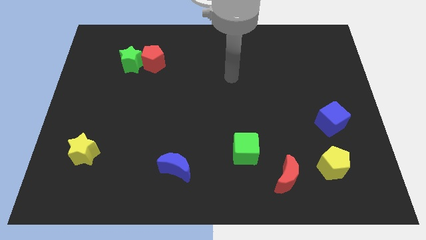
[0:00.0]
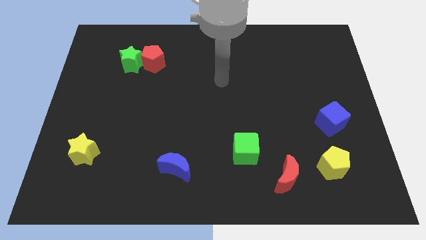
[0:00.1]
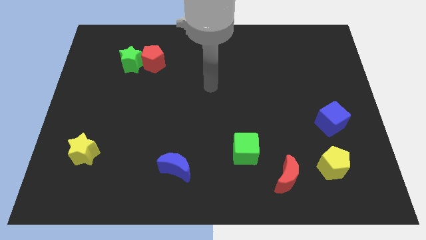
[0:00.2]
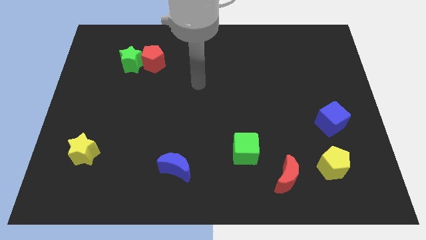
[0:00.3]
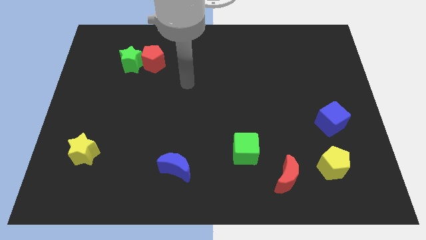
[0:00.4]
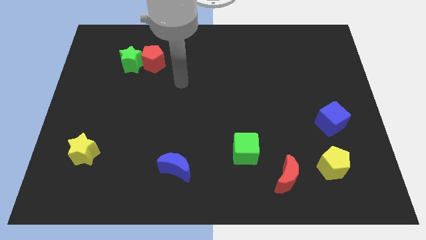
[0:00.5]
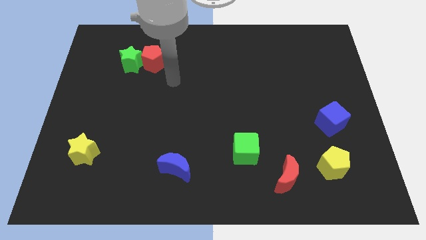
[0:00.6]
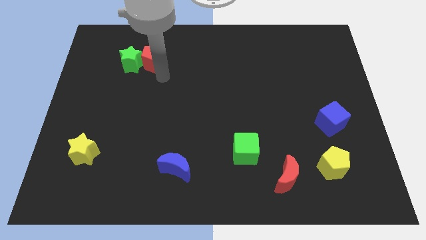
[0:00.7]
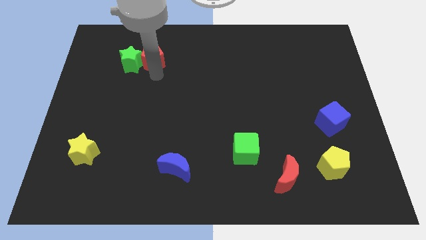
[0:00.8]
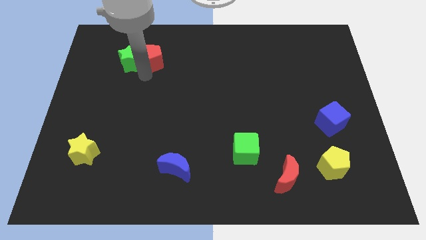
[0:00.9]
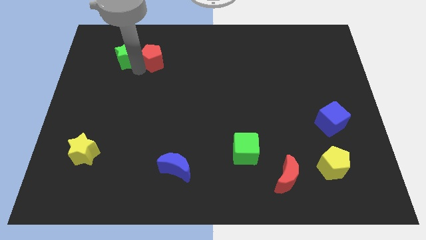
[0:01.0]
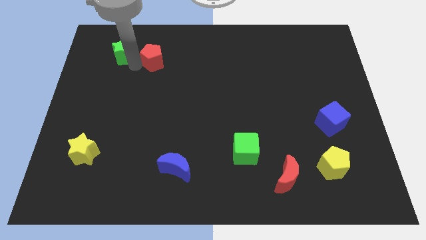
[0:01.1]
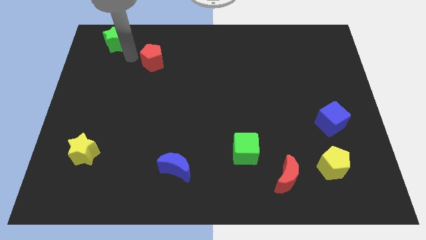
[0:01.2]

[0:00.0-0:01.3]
separate the red pentagon from the green star

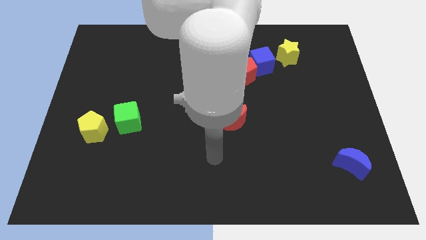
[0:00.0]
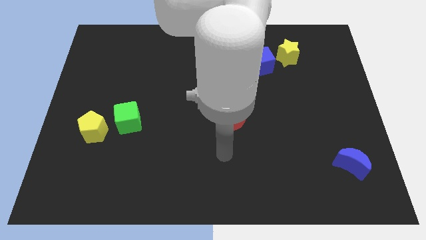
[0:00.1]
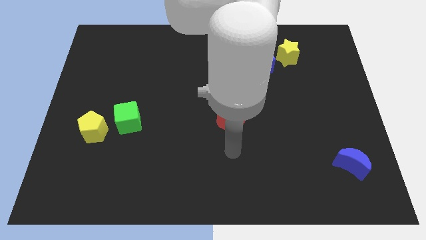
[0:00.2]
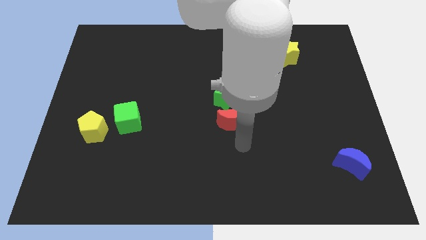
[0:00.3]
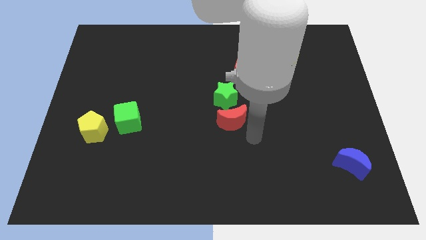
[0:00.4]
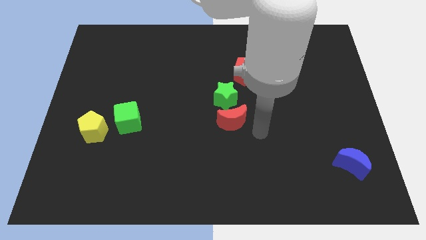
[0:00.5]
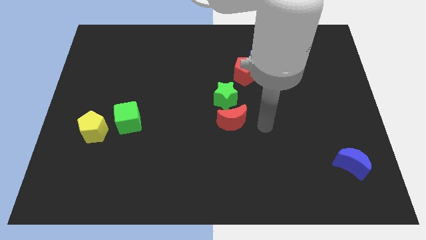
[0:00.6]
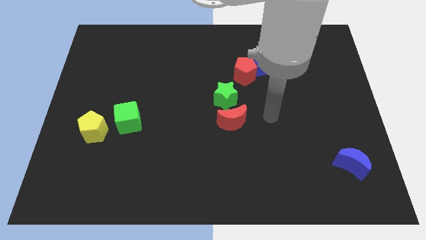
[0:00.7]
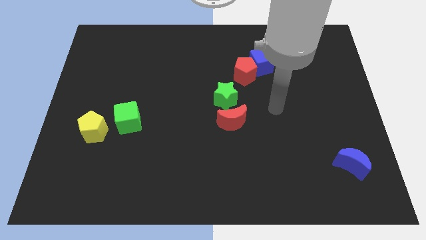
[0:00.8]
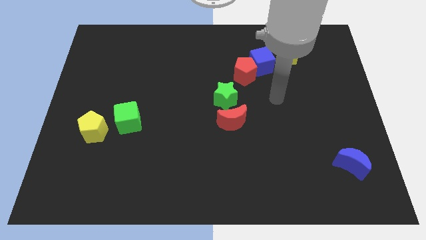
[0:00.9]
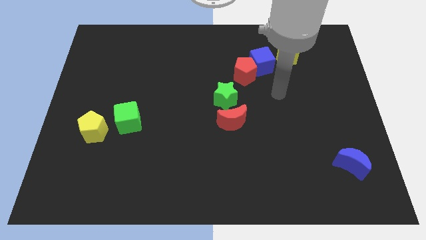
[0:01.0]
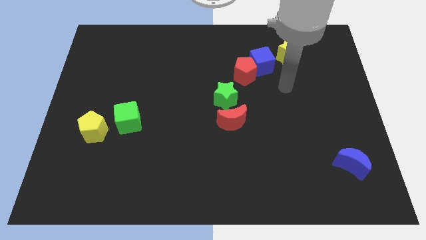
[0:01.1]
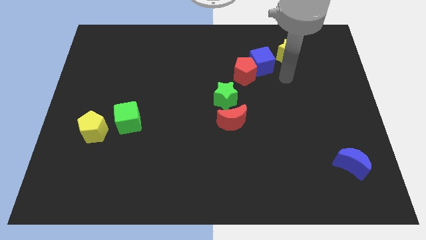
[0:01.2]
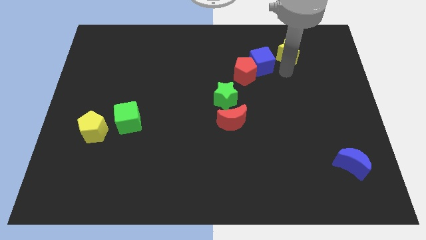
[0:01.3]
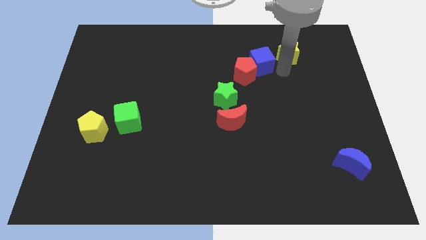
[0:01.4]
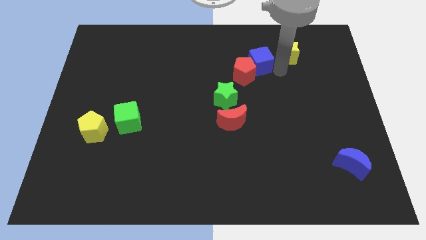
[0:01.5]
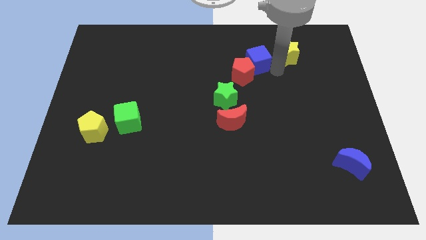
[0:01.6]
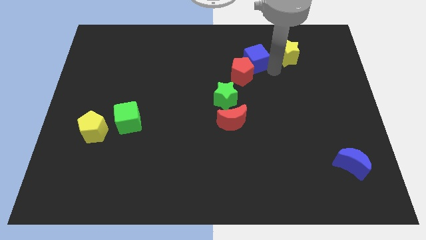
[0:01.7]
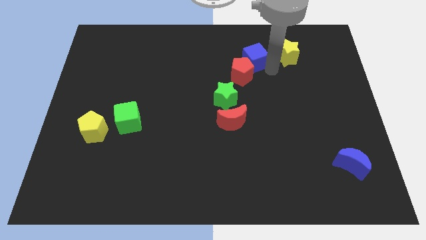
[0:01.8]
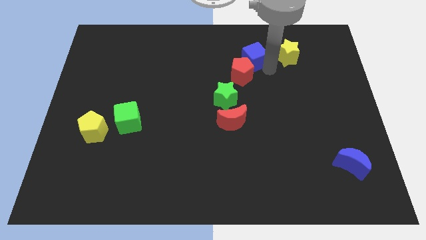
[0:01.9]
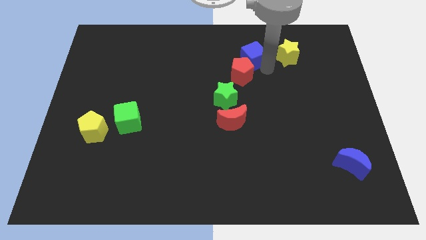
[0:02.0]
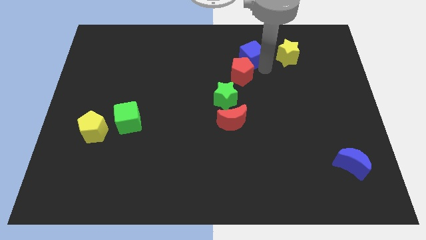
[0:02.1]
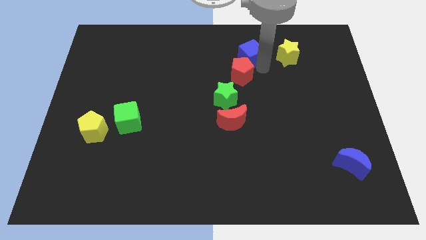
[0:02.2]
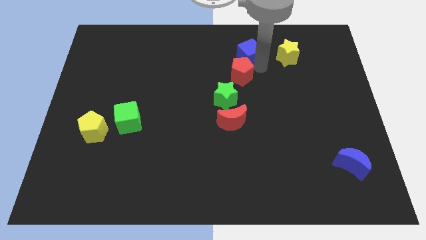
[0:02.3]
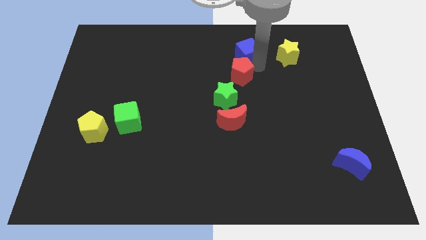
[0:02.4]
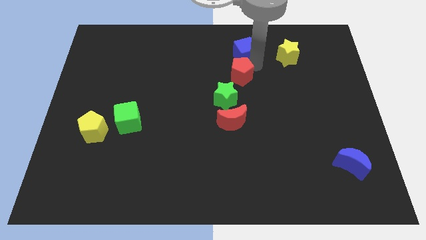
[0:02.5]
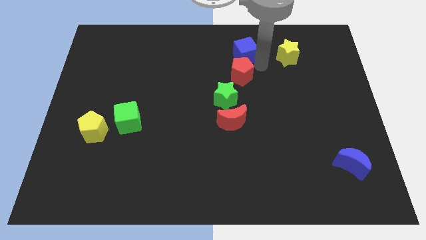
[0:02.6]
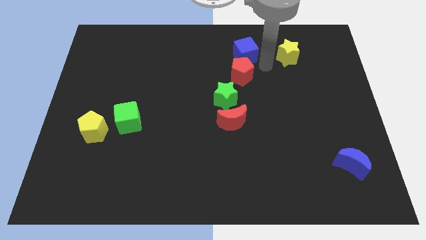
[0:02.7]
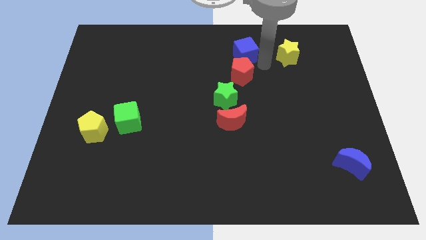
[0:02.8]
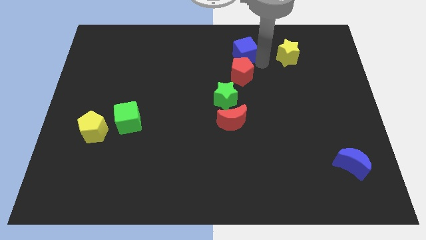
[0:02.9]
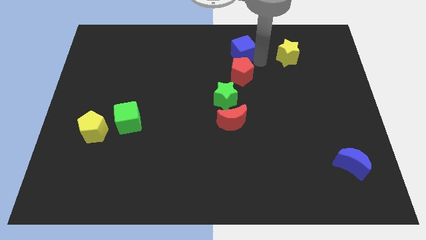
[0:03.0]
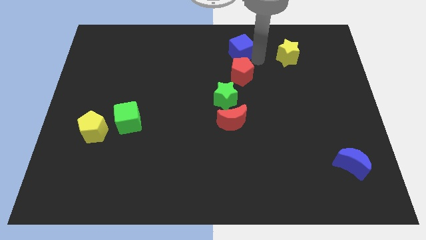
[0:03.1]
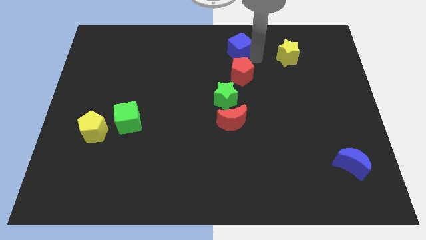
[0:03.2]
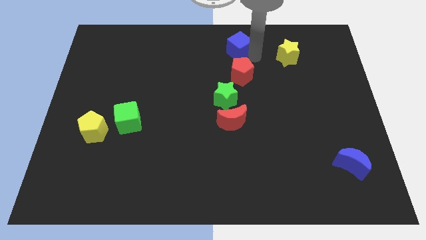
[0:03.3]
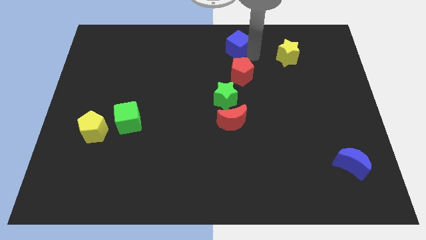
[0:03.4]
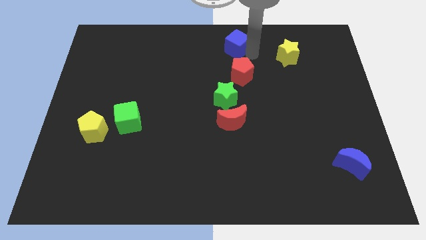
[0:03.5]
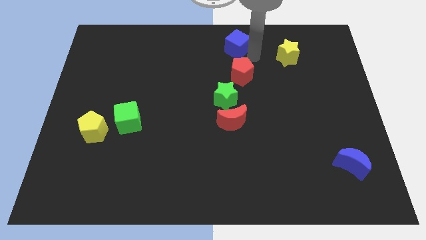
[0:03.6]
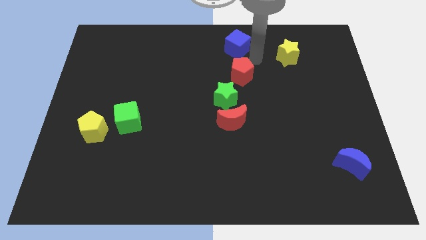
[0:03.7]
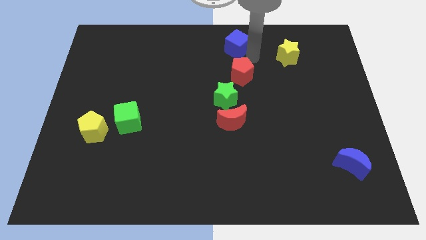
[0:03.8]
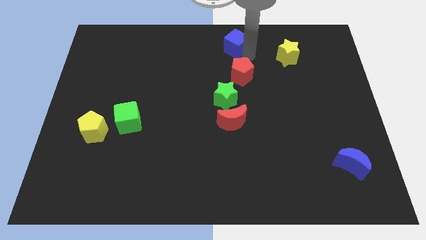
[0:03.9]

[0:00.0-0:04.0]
separate the blue cube from the red pentagon and yellow star

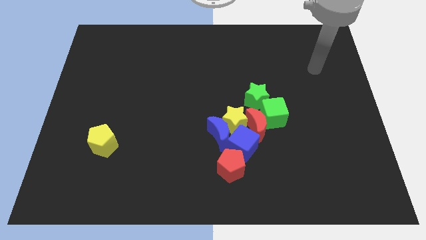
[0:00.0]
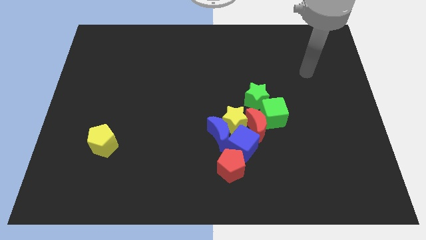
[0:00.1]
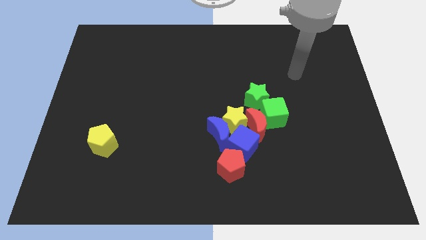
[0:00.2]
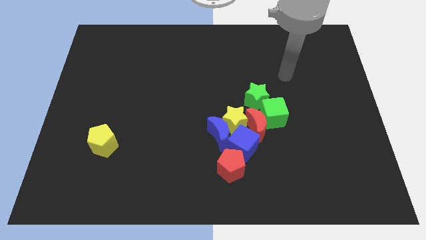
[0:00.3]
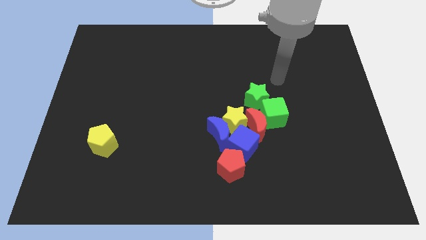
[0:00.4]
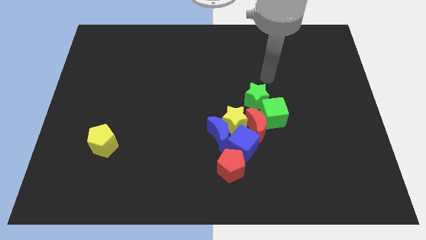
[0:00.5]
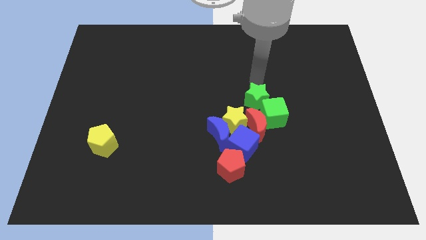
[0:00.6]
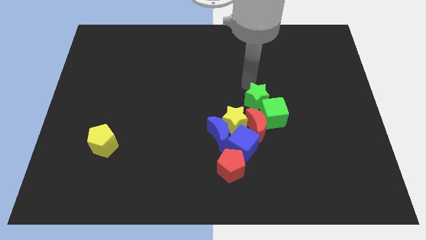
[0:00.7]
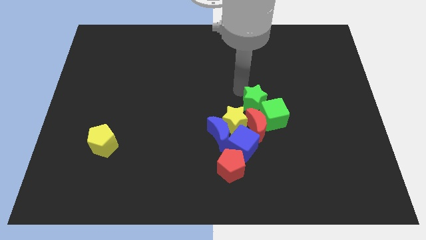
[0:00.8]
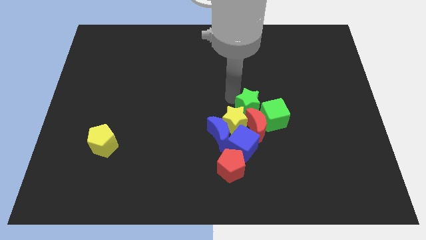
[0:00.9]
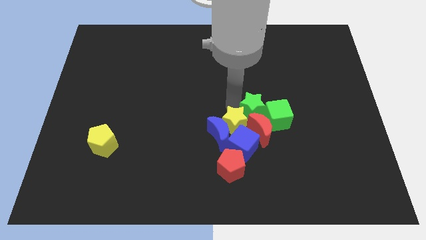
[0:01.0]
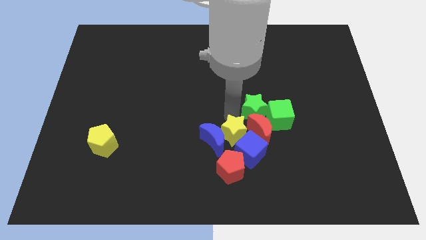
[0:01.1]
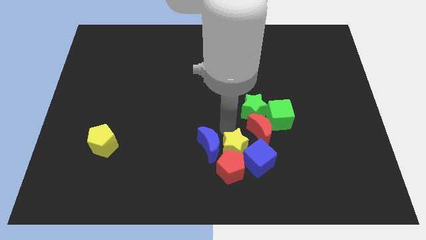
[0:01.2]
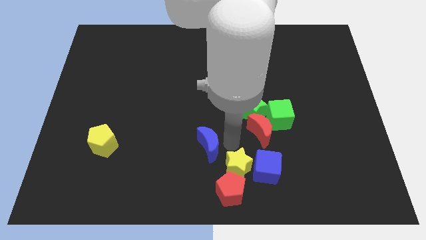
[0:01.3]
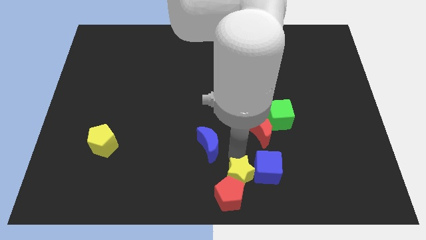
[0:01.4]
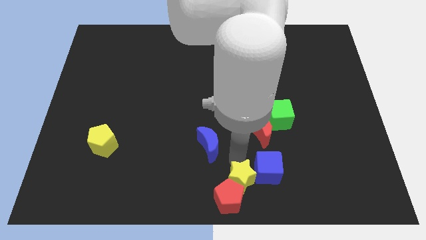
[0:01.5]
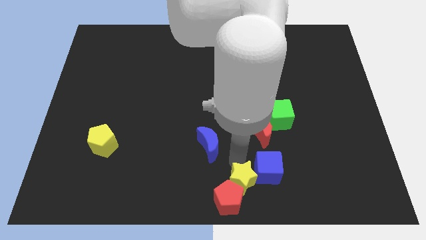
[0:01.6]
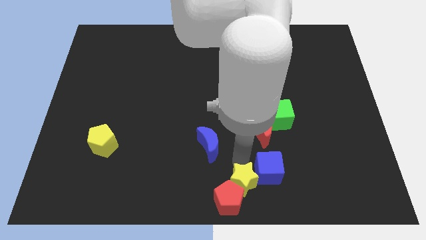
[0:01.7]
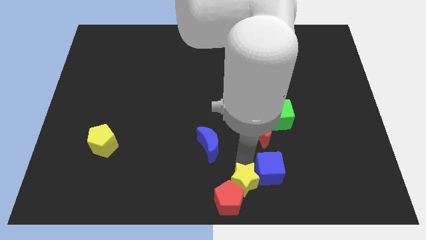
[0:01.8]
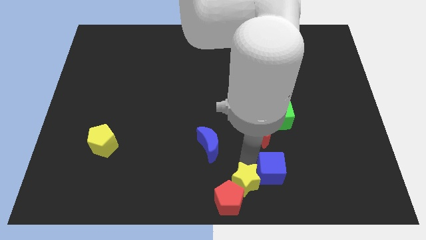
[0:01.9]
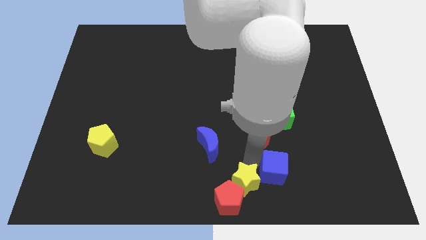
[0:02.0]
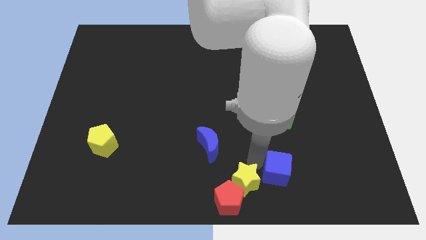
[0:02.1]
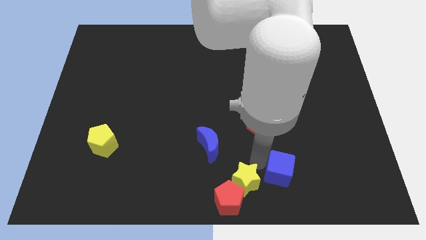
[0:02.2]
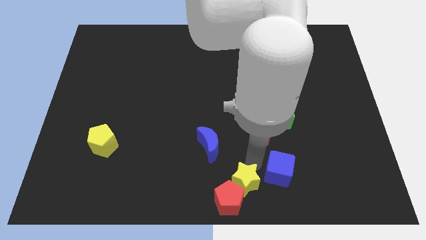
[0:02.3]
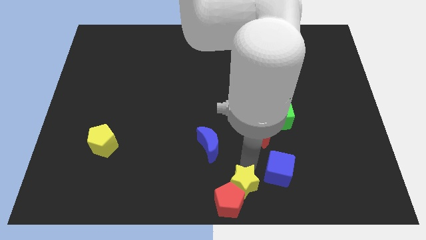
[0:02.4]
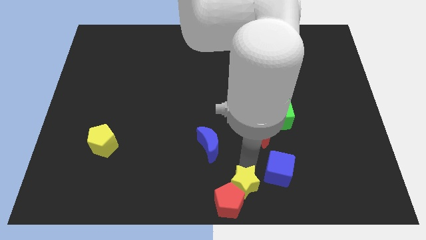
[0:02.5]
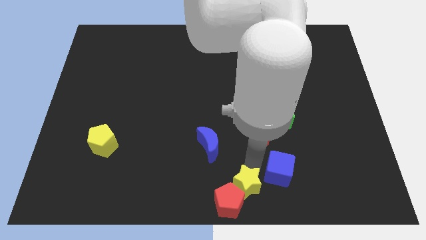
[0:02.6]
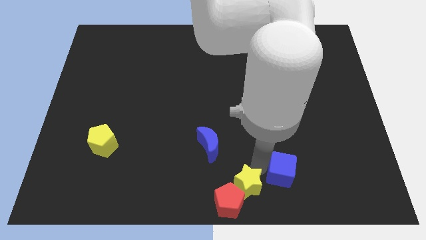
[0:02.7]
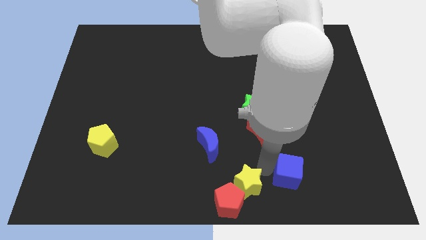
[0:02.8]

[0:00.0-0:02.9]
separate the blue cube from the group

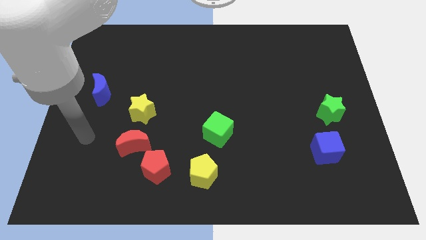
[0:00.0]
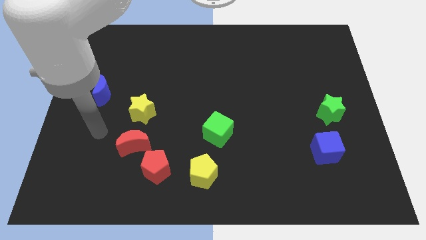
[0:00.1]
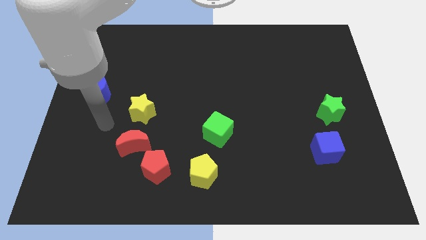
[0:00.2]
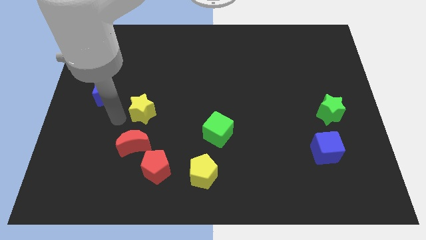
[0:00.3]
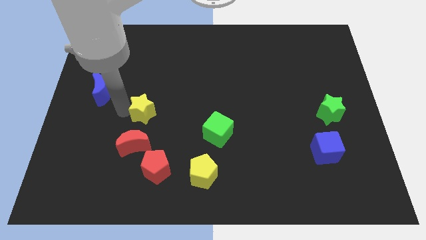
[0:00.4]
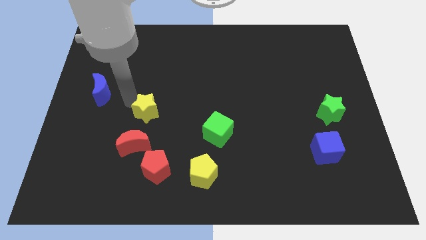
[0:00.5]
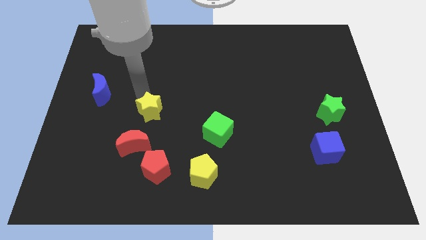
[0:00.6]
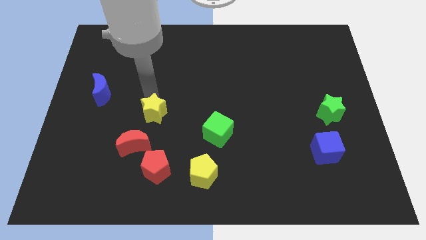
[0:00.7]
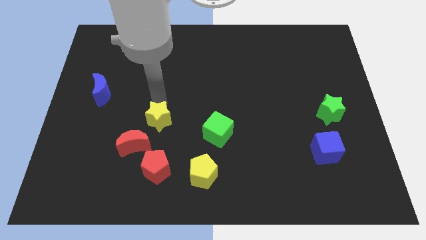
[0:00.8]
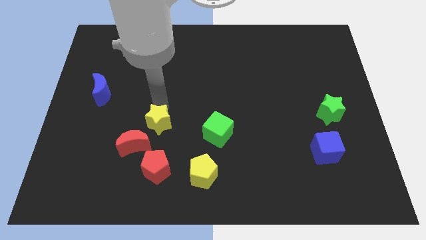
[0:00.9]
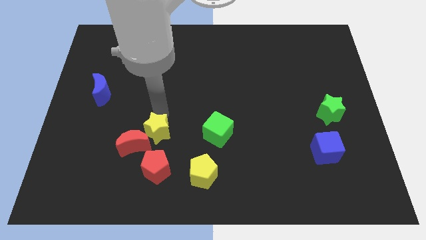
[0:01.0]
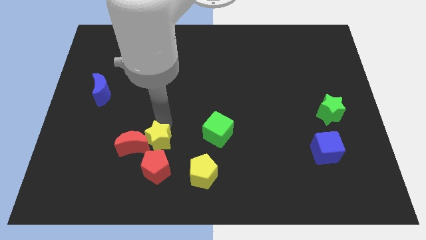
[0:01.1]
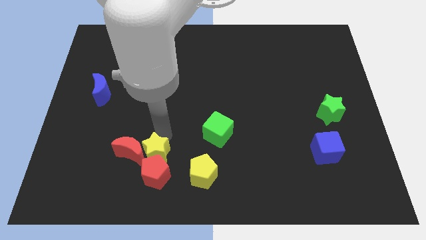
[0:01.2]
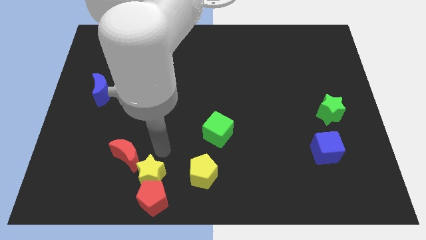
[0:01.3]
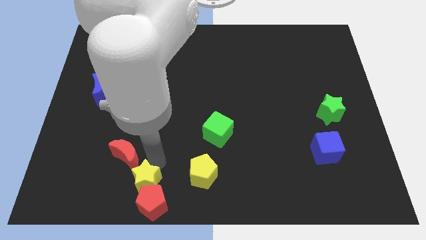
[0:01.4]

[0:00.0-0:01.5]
separate the red moon from the red pentagon and yellow star
